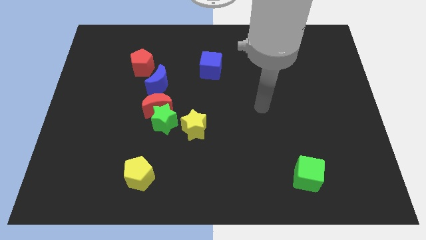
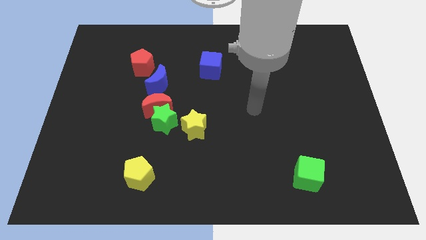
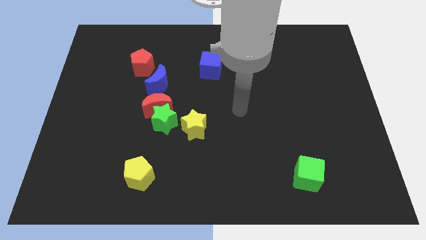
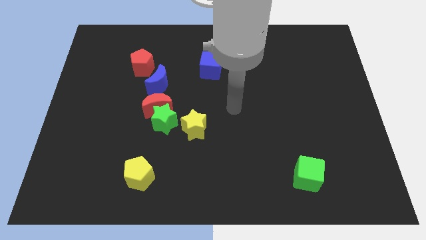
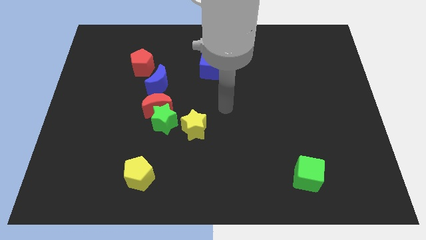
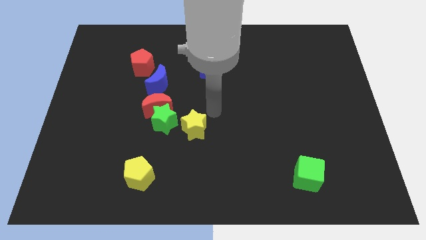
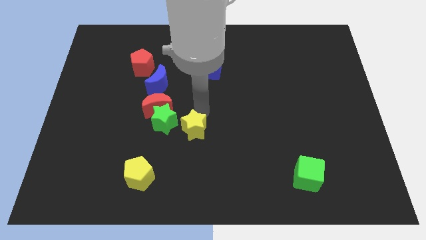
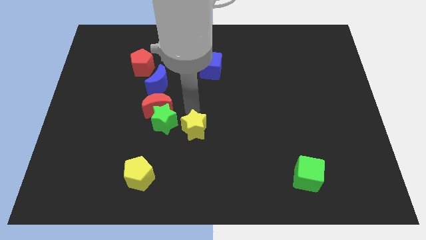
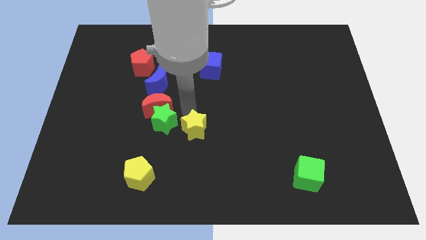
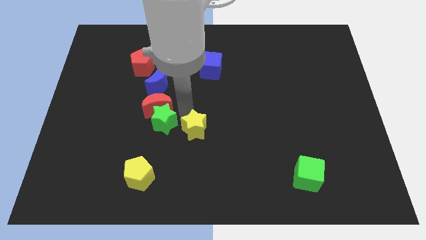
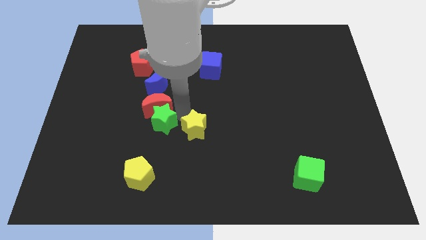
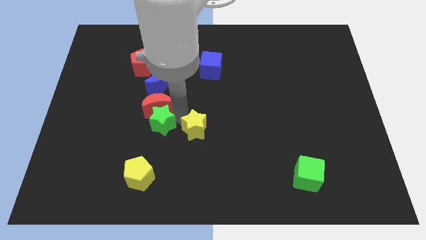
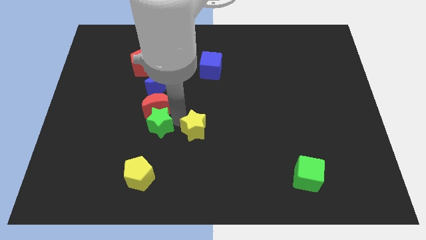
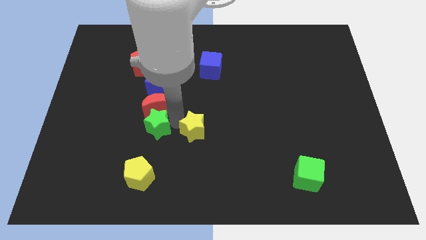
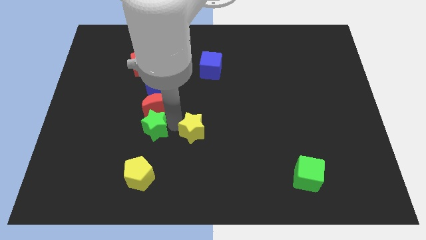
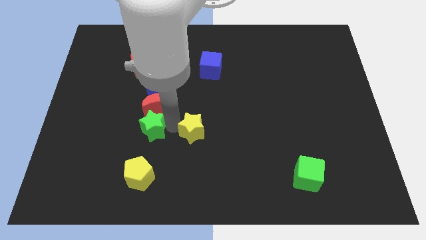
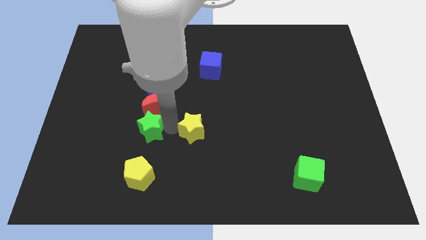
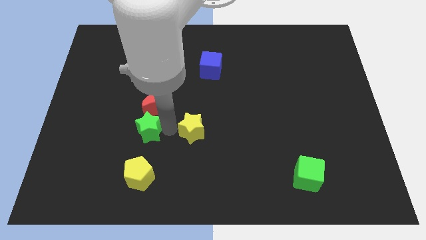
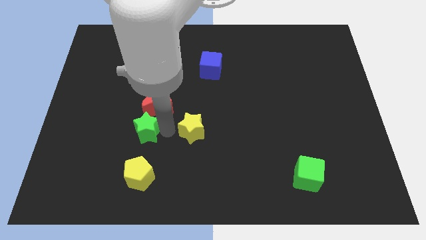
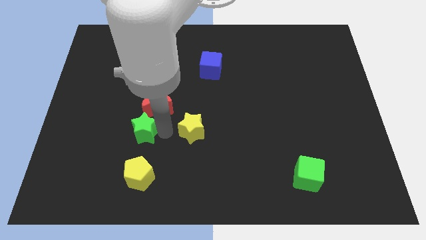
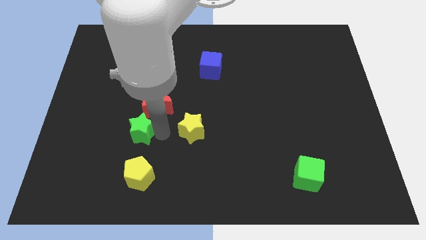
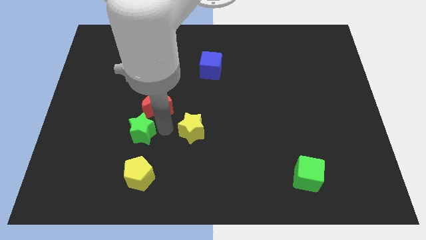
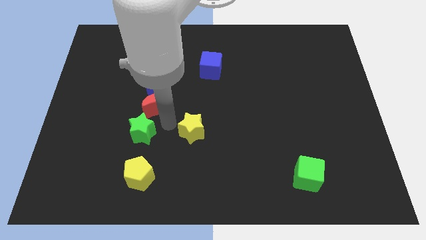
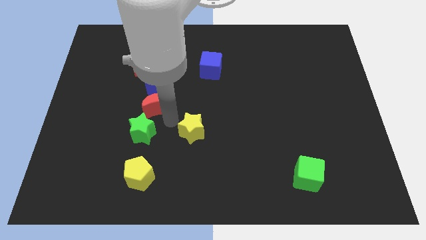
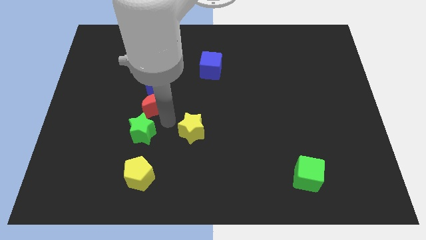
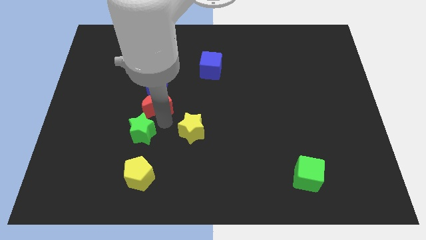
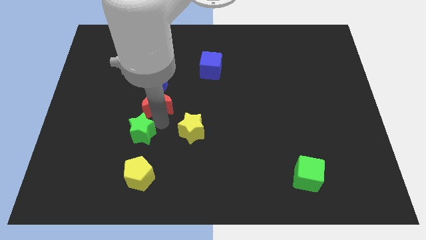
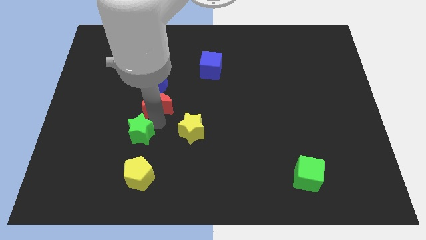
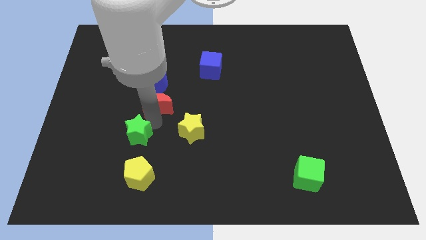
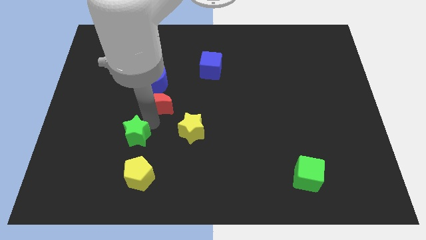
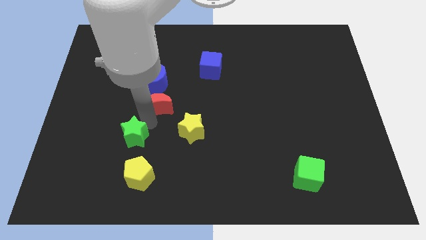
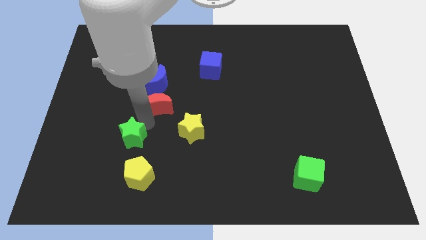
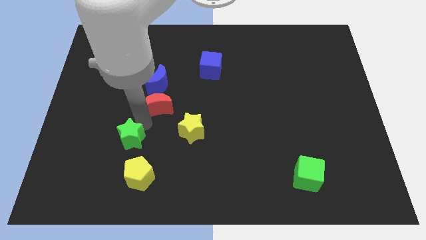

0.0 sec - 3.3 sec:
move the green star away from the red moon and yellow star

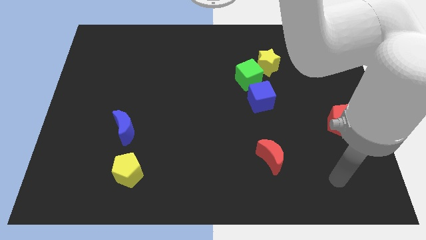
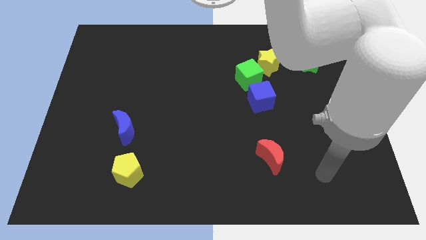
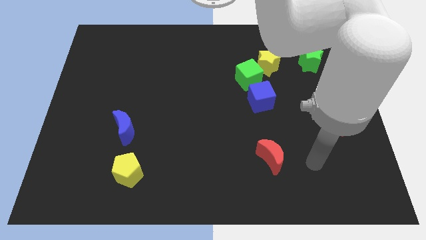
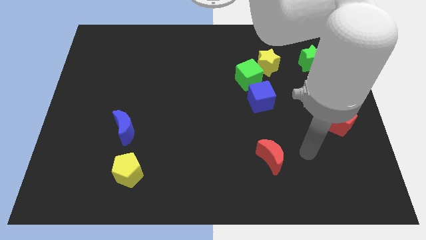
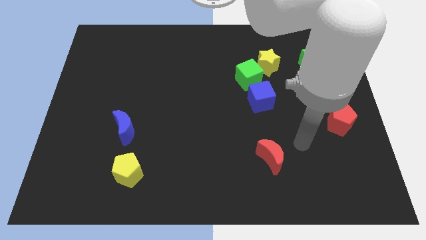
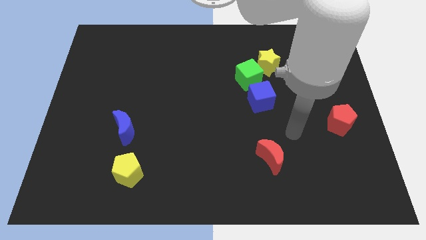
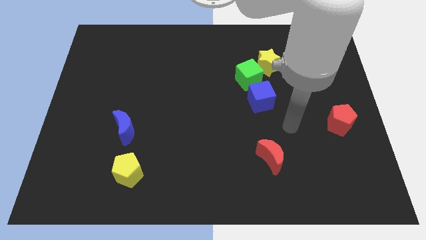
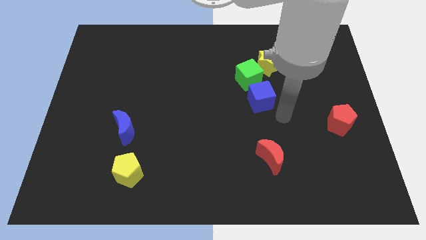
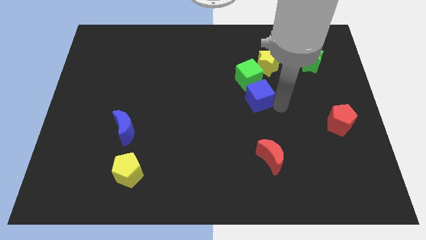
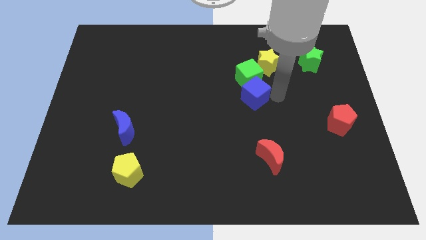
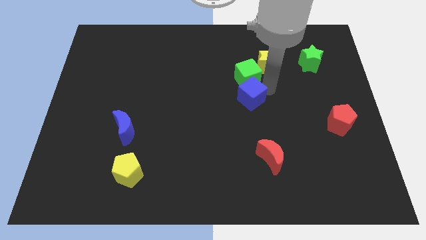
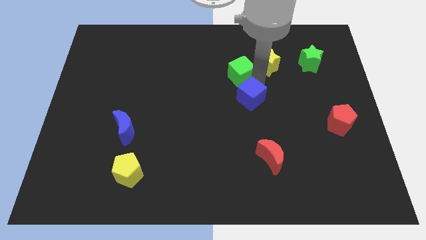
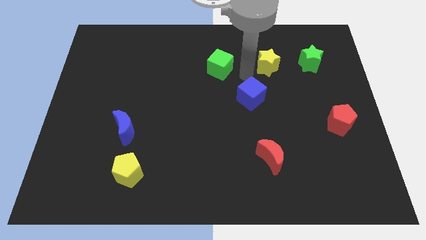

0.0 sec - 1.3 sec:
separate the yellow star from the green cube

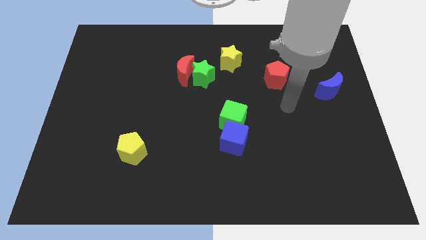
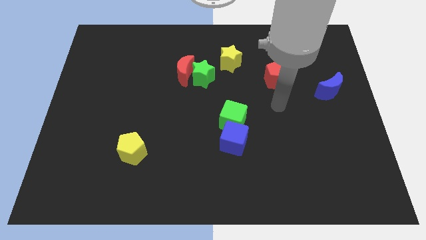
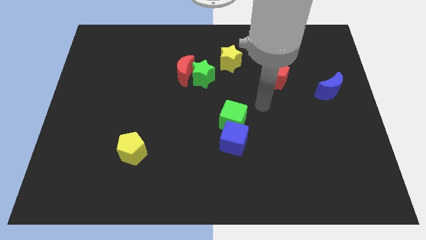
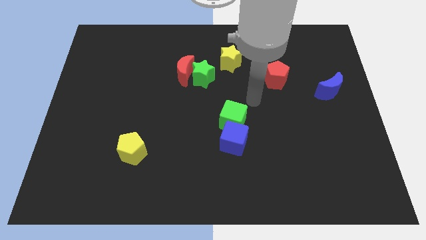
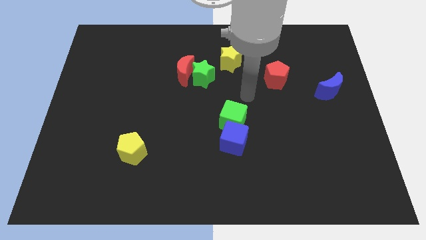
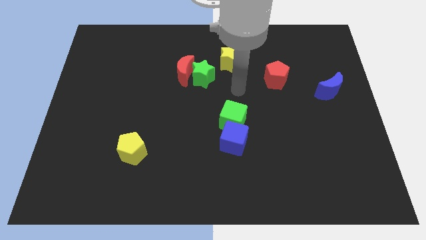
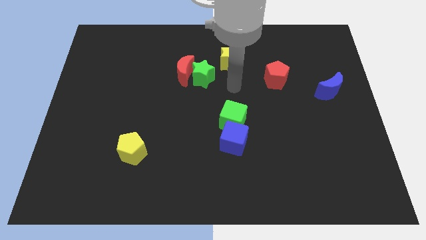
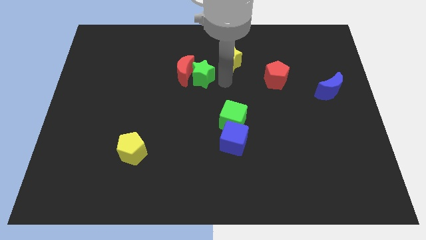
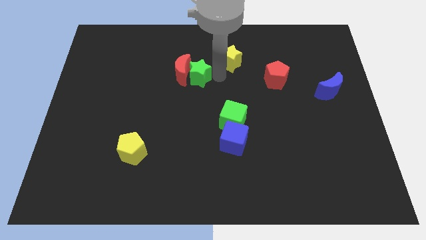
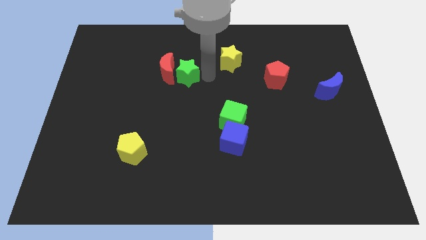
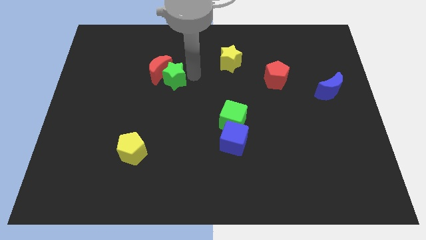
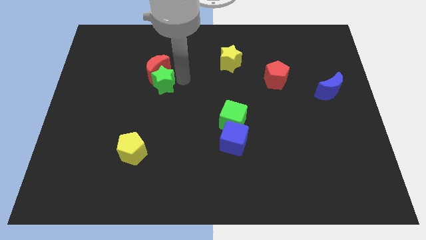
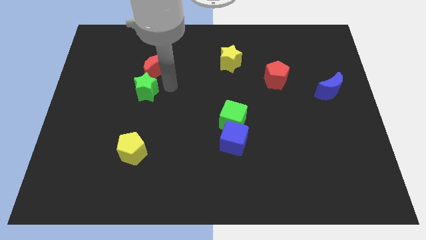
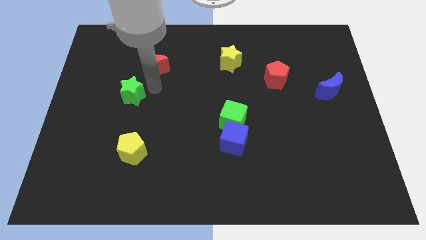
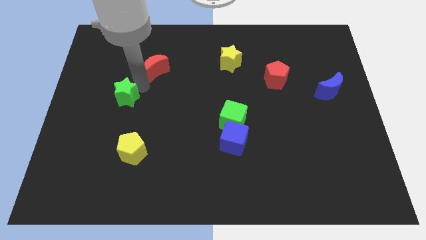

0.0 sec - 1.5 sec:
pull the red moon apart from the green star

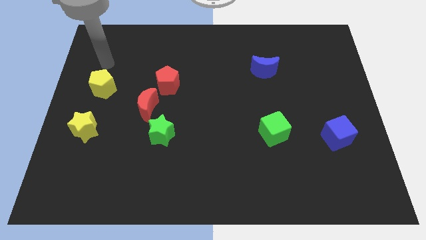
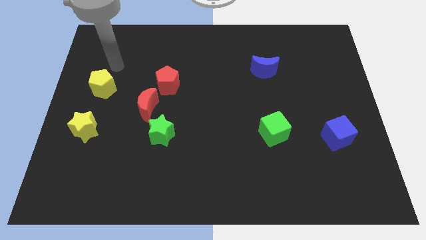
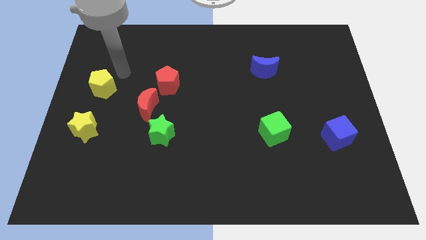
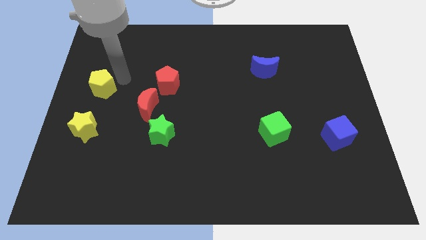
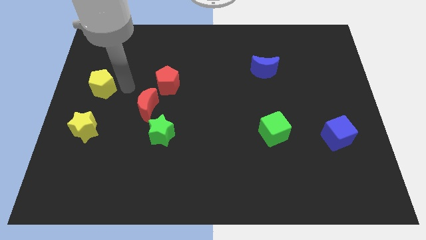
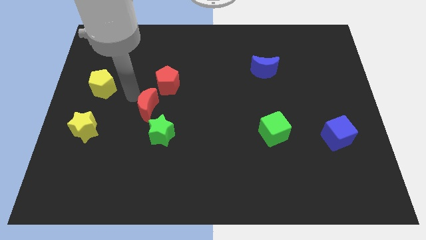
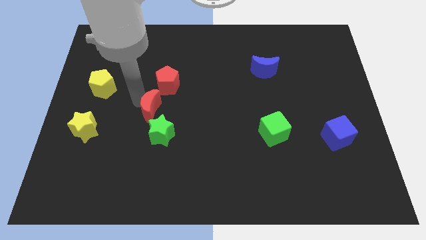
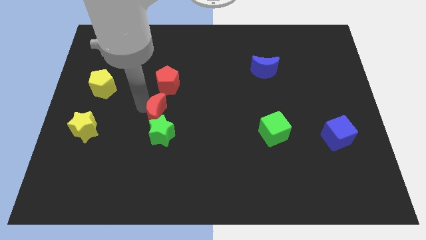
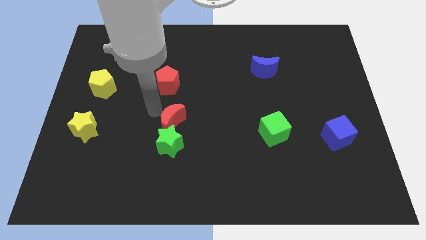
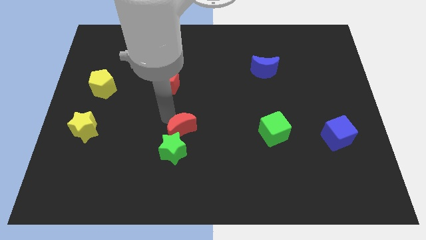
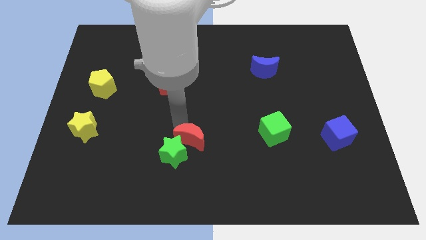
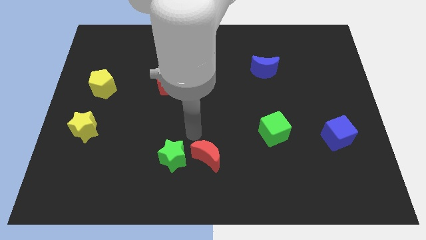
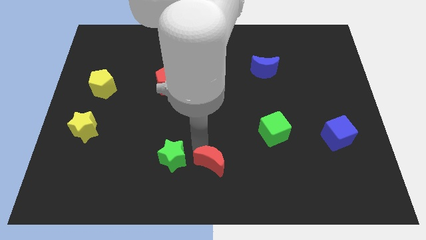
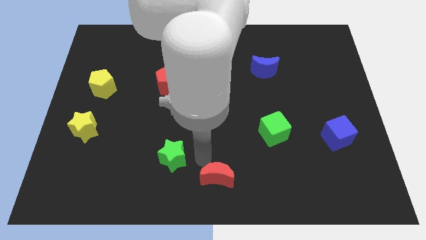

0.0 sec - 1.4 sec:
separate the green star from the red moon

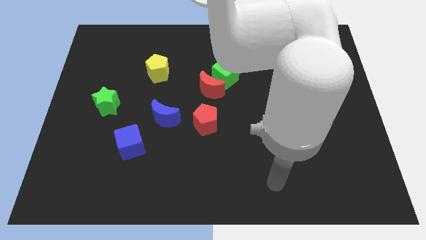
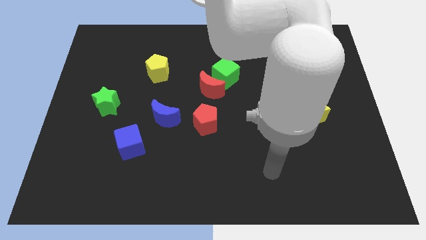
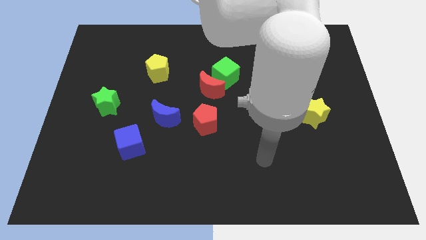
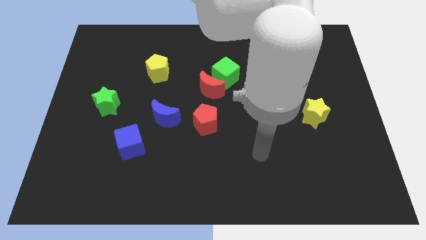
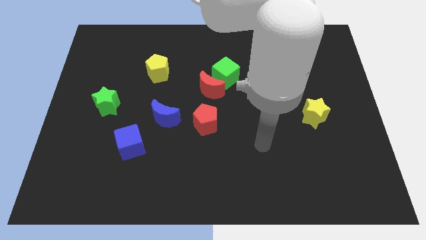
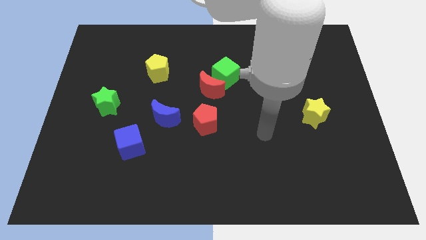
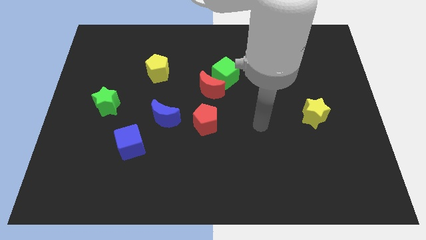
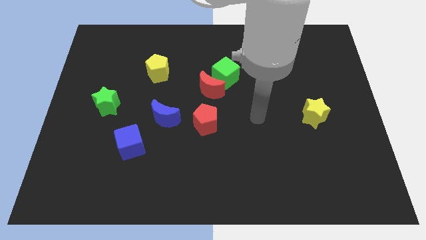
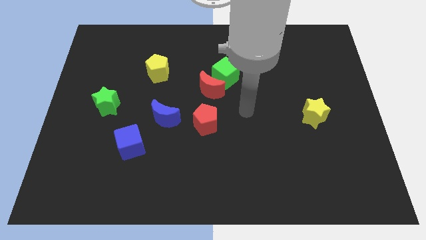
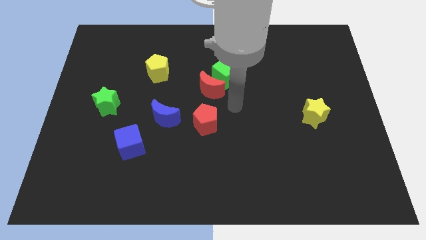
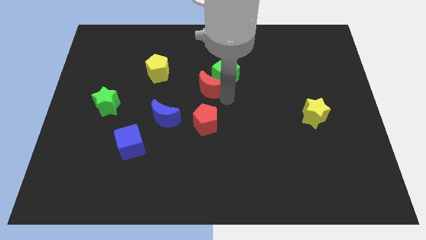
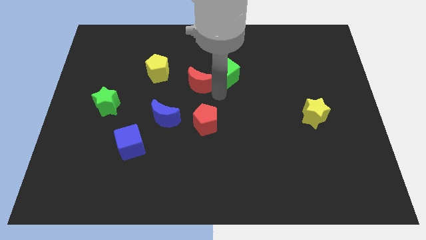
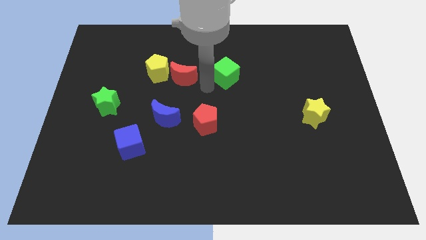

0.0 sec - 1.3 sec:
pull the green cube apart from the red moon

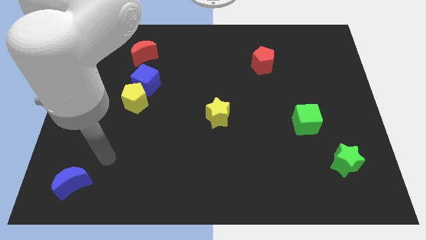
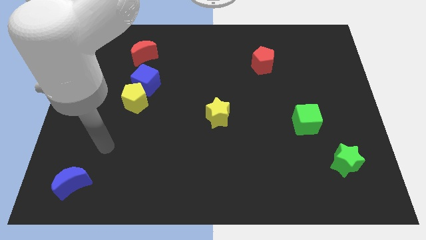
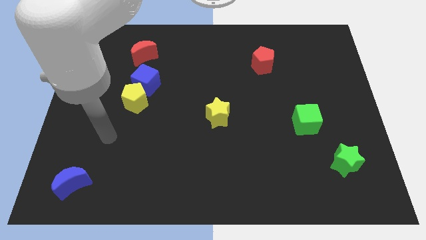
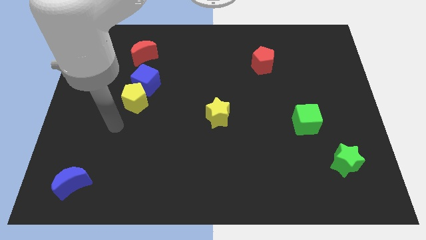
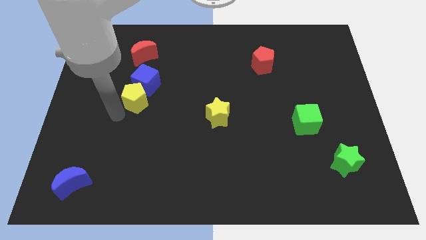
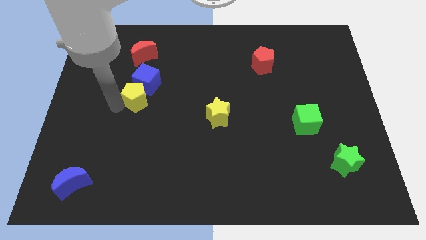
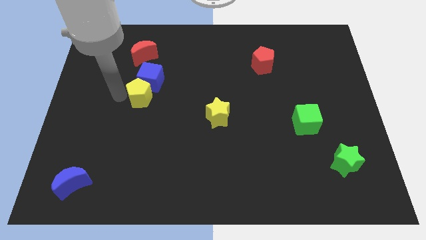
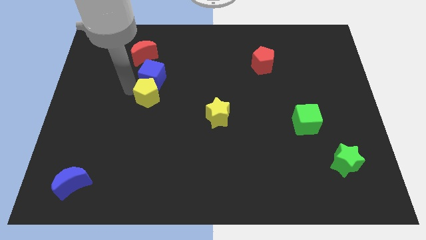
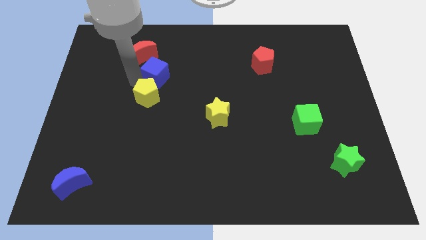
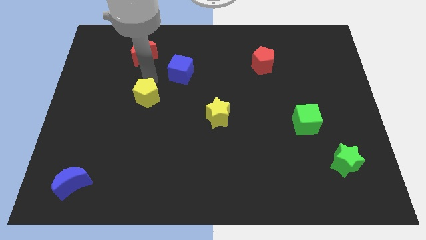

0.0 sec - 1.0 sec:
separate the yellow pentagon from the blue cube
